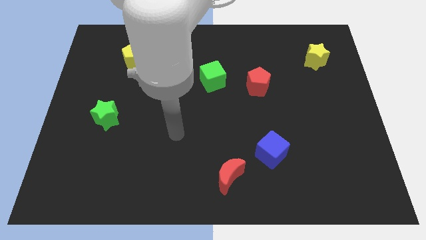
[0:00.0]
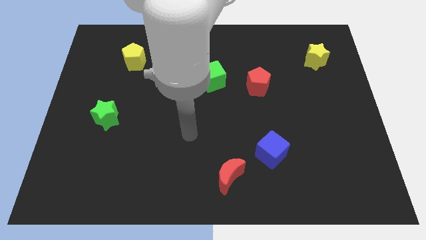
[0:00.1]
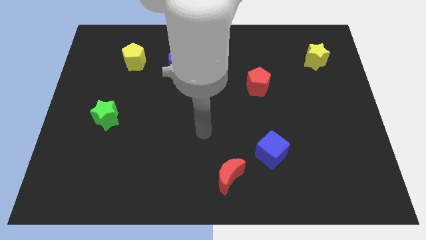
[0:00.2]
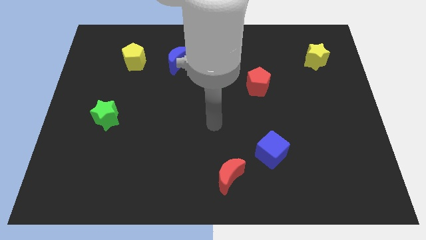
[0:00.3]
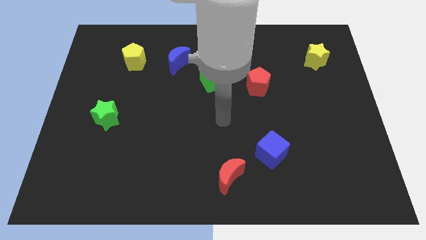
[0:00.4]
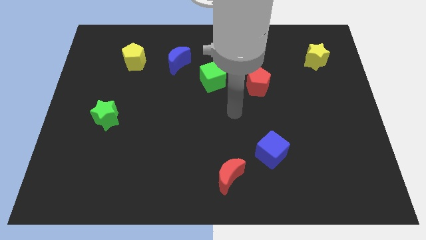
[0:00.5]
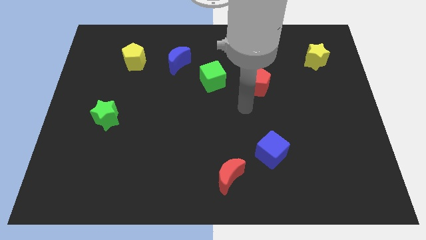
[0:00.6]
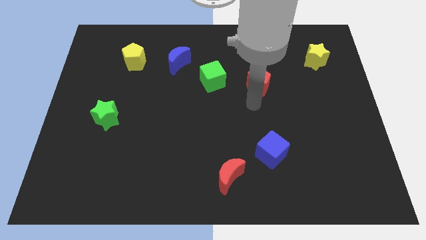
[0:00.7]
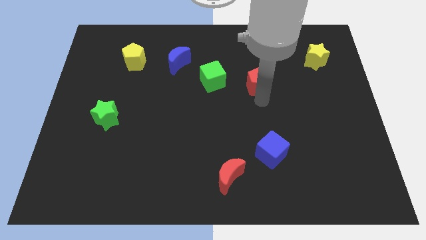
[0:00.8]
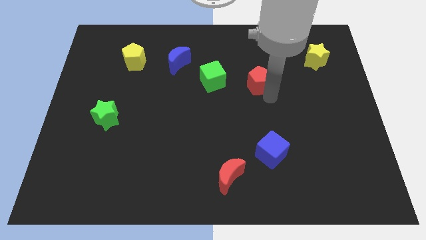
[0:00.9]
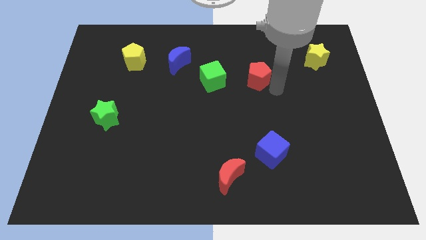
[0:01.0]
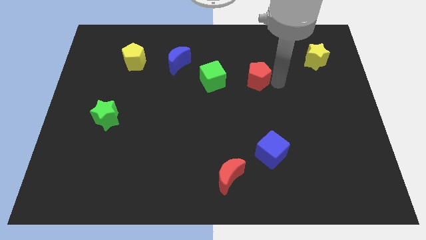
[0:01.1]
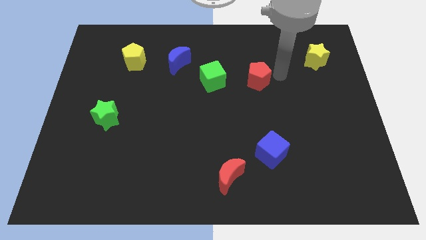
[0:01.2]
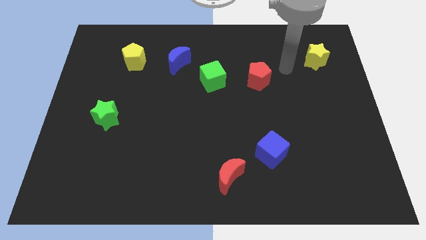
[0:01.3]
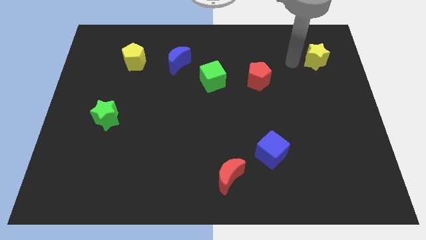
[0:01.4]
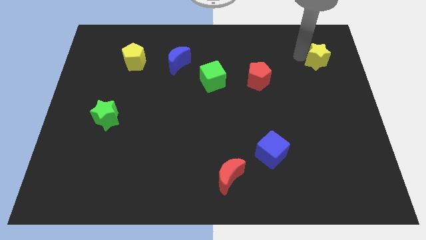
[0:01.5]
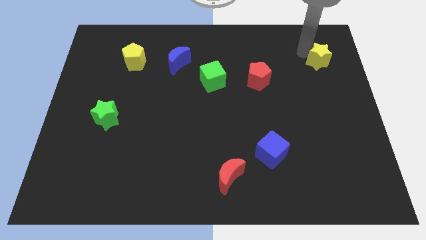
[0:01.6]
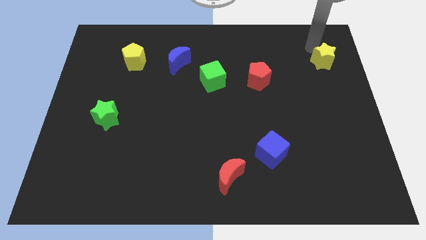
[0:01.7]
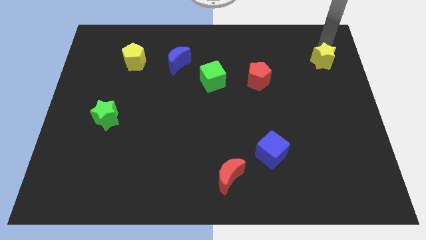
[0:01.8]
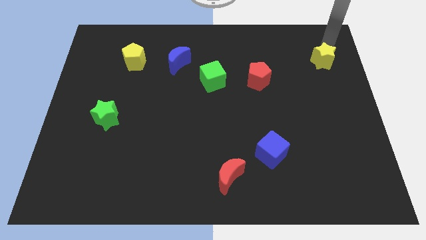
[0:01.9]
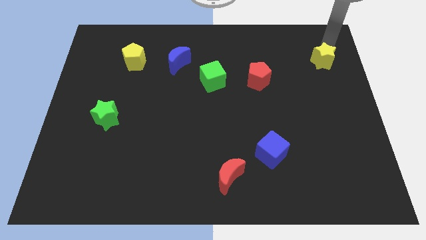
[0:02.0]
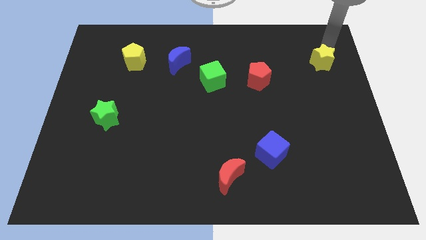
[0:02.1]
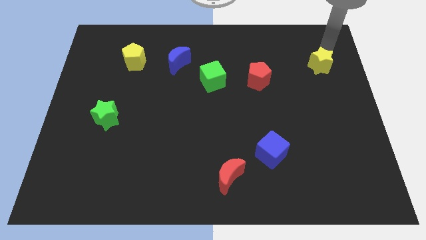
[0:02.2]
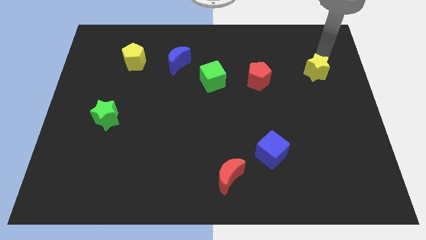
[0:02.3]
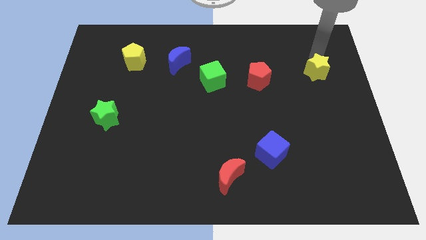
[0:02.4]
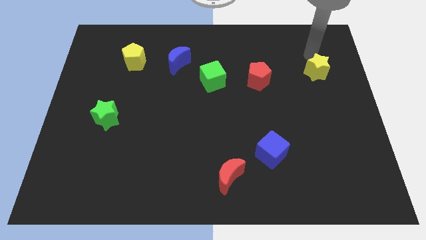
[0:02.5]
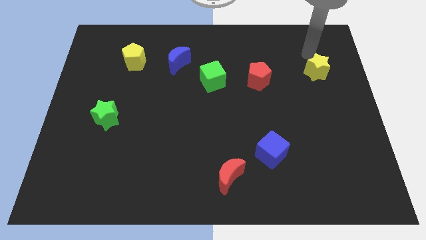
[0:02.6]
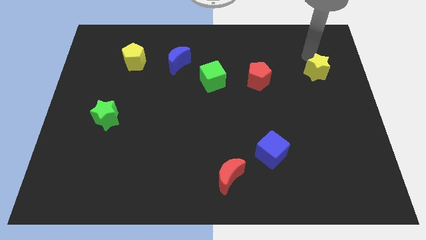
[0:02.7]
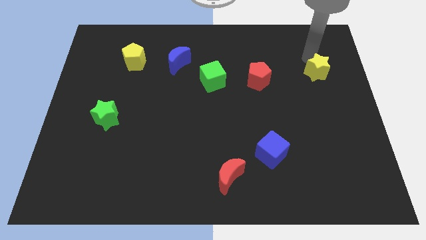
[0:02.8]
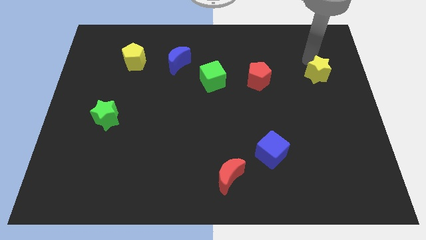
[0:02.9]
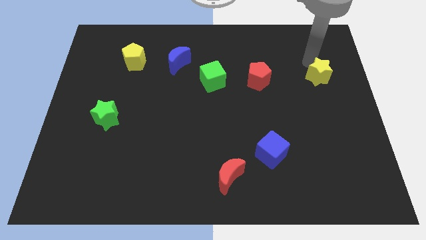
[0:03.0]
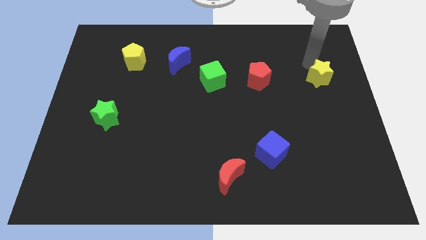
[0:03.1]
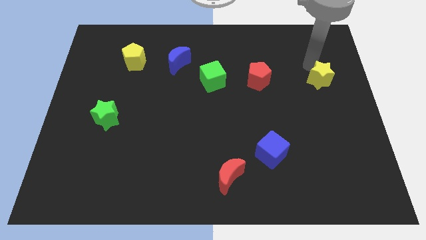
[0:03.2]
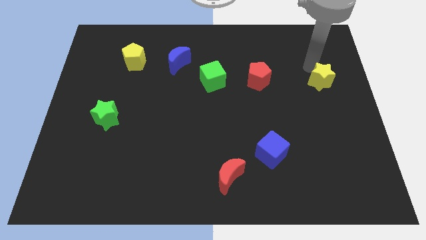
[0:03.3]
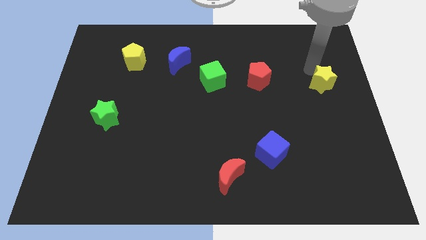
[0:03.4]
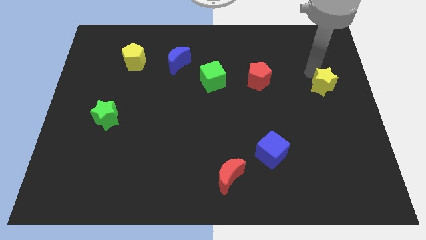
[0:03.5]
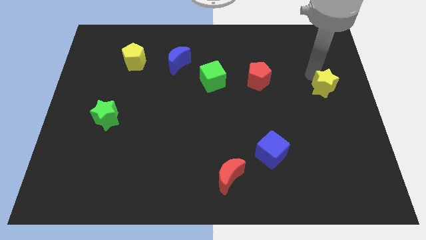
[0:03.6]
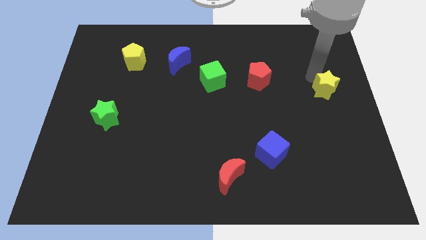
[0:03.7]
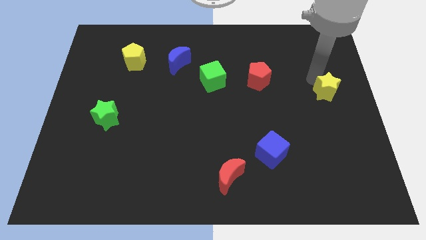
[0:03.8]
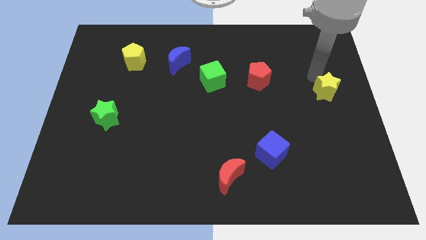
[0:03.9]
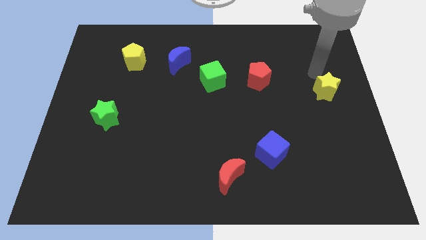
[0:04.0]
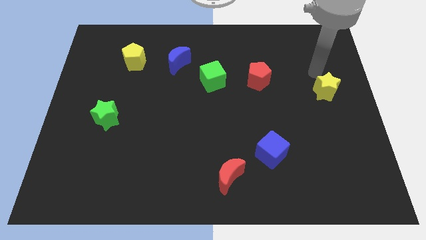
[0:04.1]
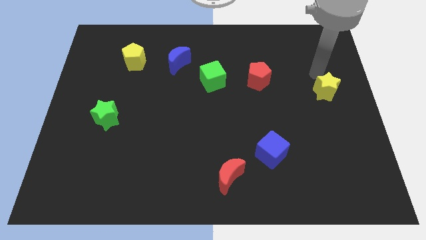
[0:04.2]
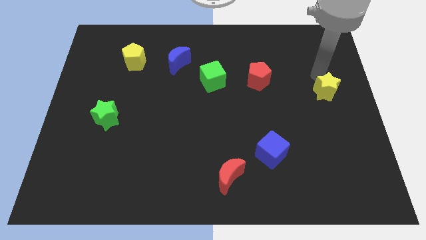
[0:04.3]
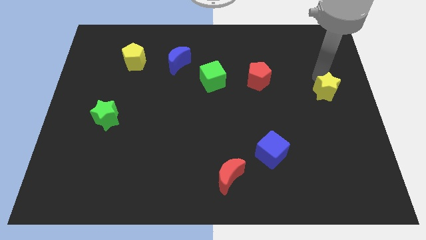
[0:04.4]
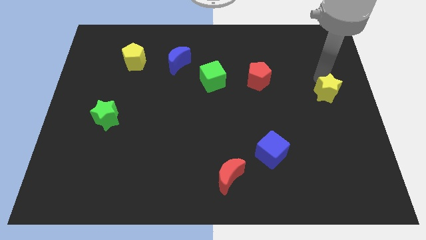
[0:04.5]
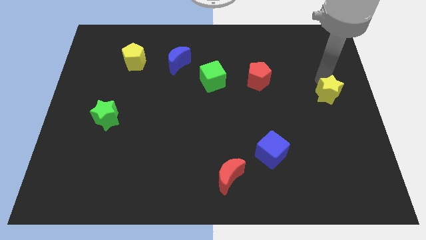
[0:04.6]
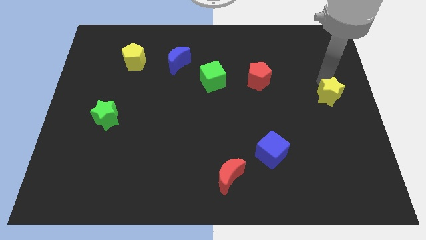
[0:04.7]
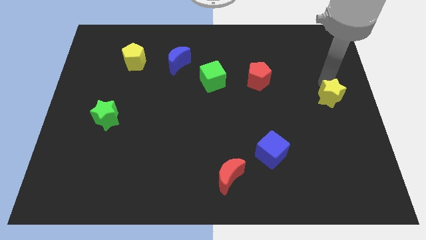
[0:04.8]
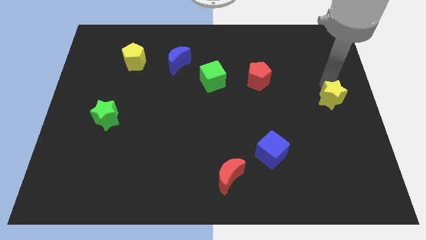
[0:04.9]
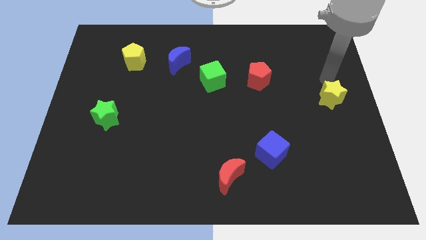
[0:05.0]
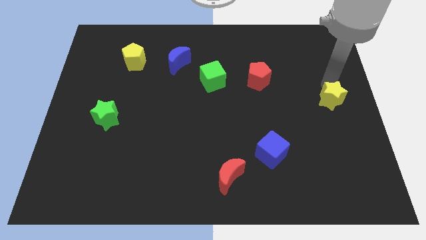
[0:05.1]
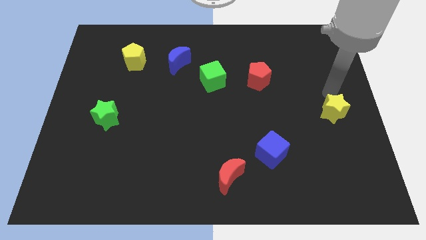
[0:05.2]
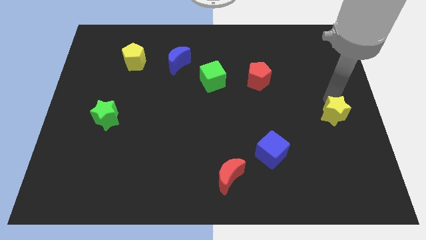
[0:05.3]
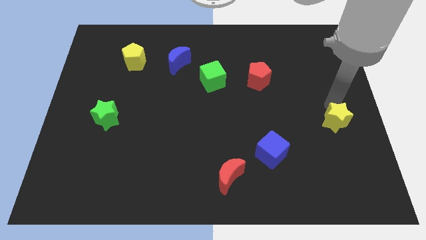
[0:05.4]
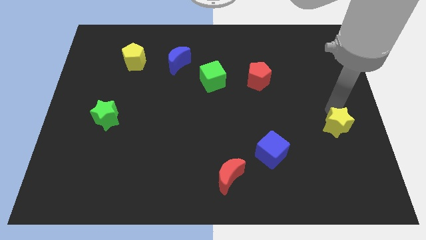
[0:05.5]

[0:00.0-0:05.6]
move the yellow star downwards

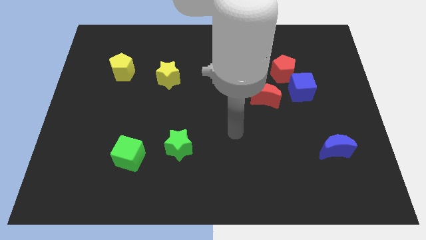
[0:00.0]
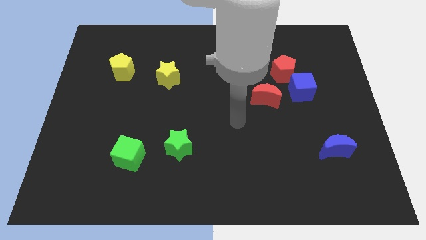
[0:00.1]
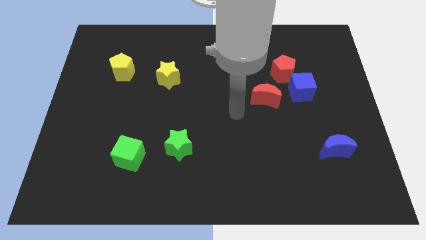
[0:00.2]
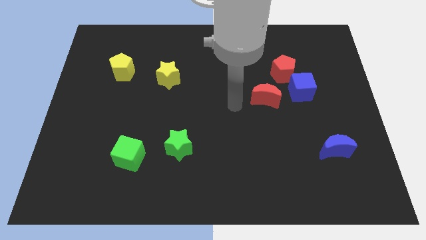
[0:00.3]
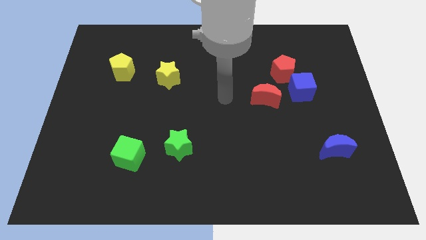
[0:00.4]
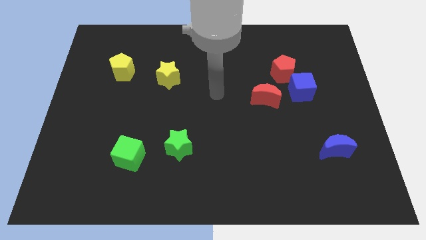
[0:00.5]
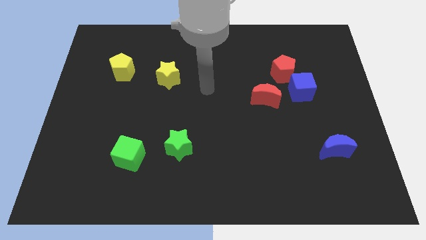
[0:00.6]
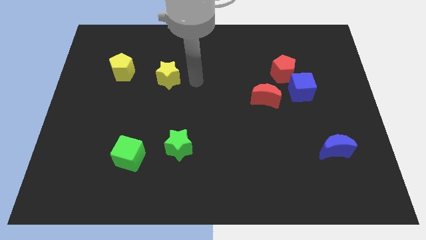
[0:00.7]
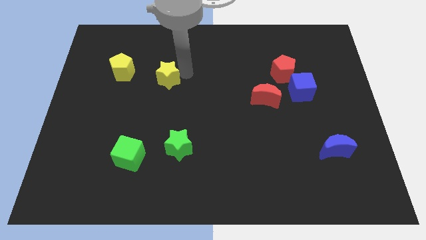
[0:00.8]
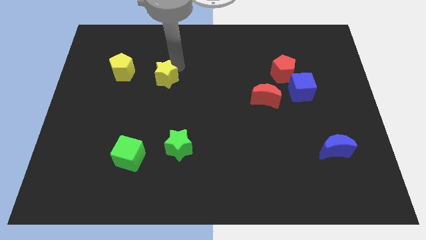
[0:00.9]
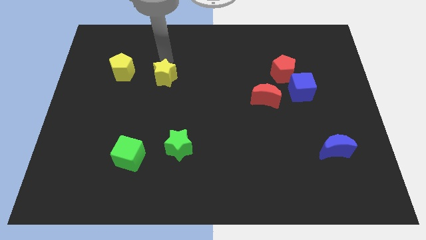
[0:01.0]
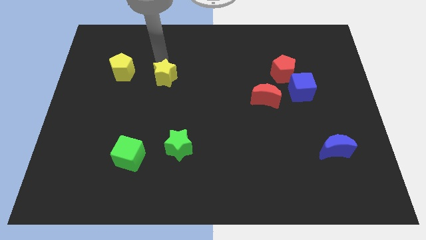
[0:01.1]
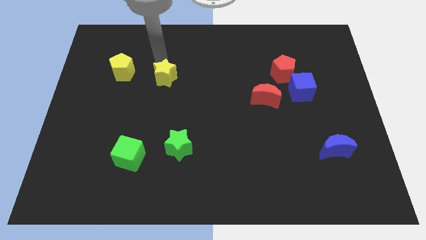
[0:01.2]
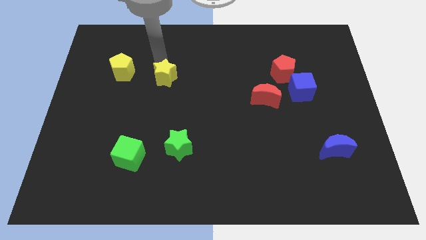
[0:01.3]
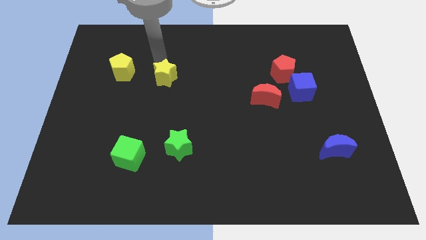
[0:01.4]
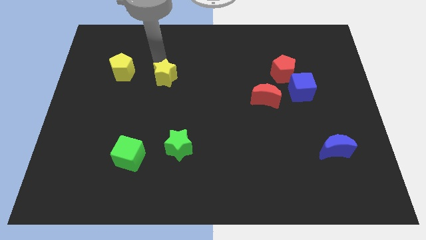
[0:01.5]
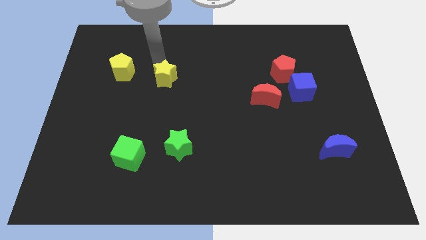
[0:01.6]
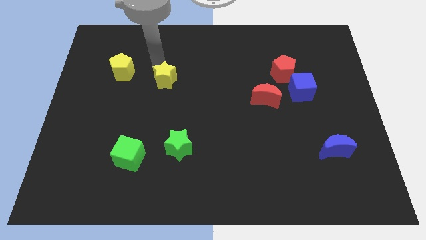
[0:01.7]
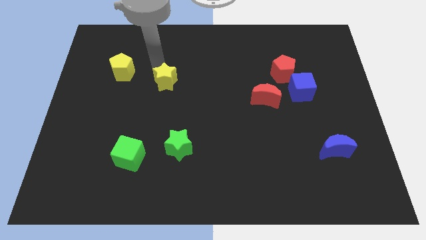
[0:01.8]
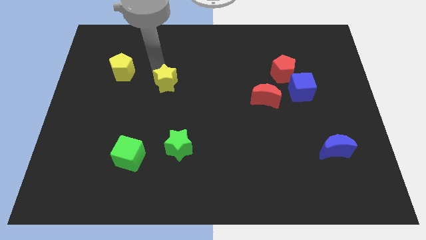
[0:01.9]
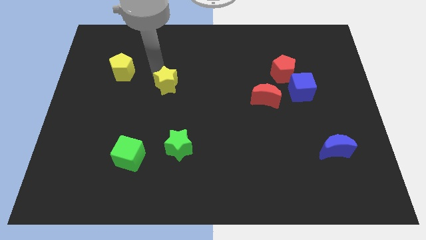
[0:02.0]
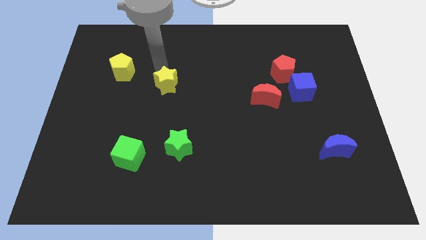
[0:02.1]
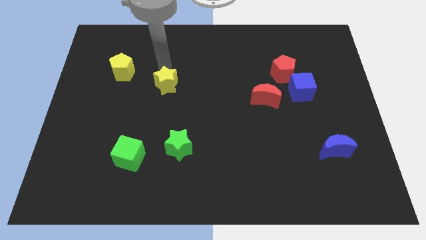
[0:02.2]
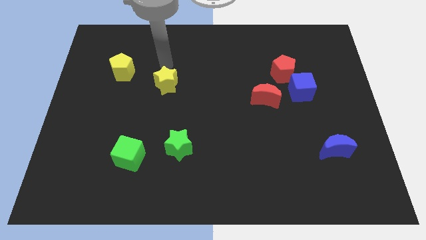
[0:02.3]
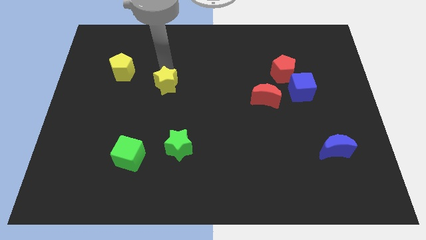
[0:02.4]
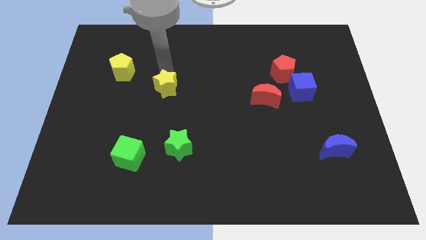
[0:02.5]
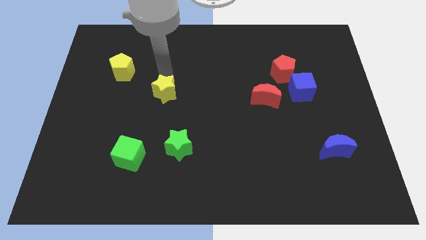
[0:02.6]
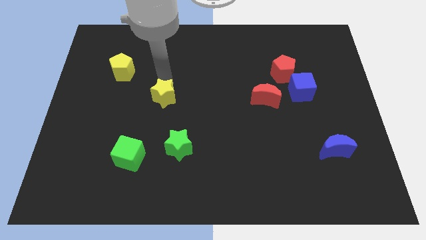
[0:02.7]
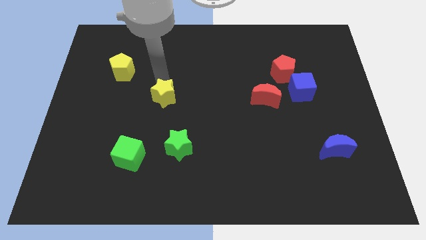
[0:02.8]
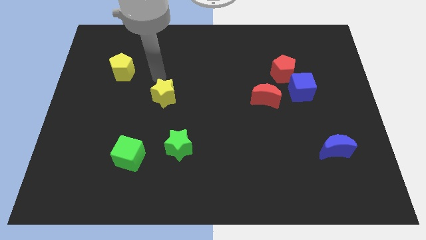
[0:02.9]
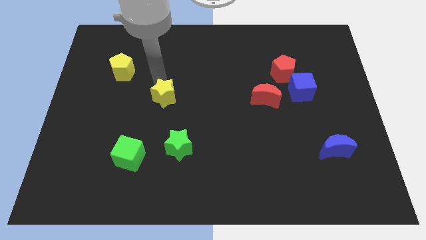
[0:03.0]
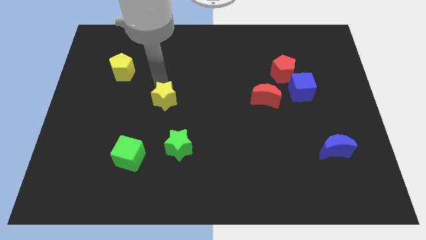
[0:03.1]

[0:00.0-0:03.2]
slide the yellow star somewhat down
